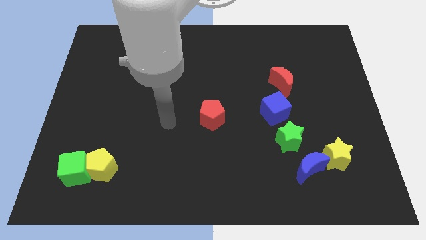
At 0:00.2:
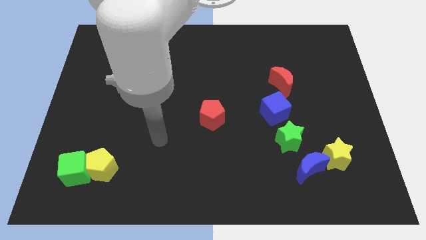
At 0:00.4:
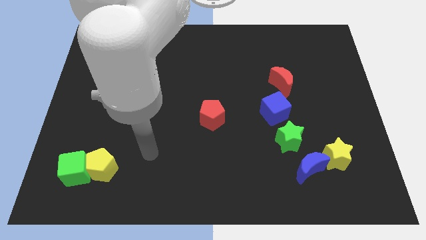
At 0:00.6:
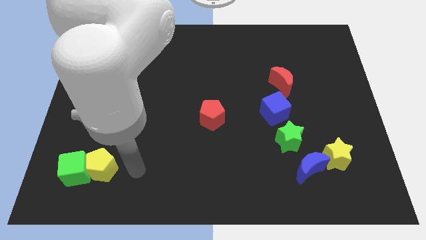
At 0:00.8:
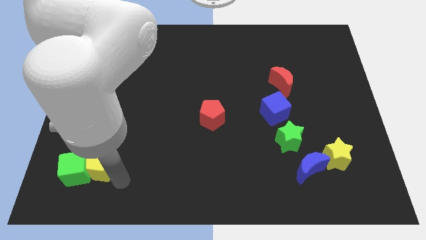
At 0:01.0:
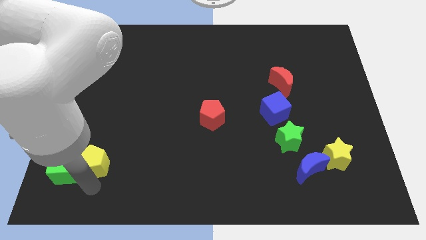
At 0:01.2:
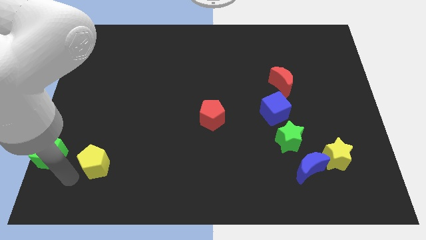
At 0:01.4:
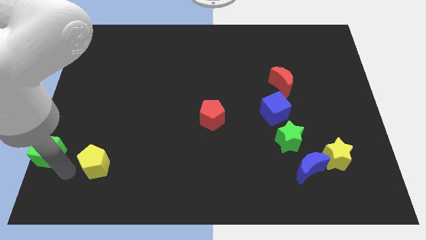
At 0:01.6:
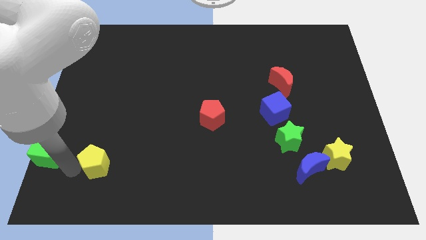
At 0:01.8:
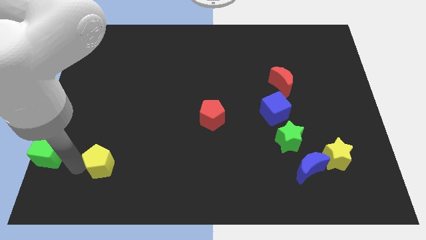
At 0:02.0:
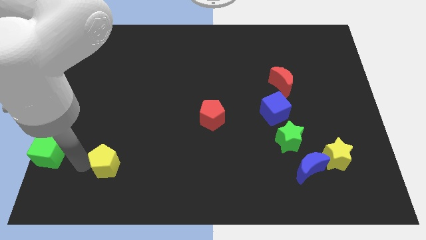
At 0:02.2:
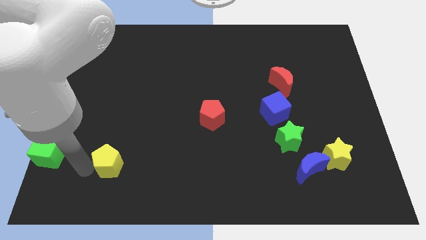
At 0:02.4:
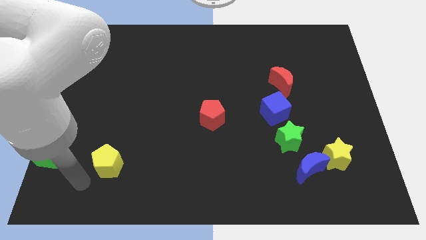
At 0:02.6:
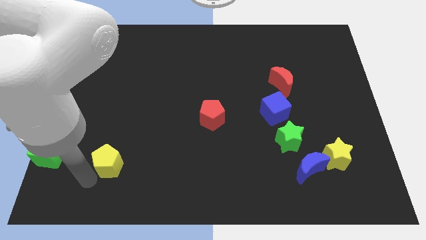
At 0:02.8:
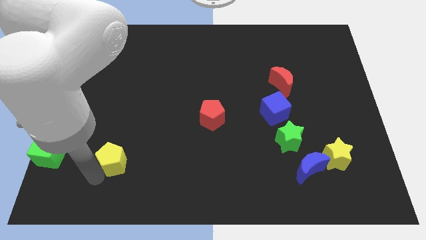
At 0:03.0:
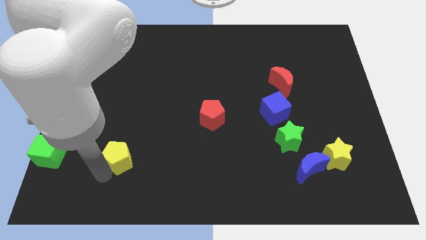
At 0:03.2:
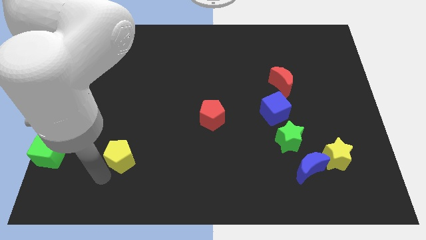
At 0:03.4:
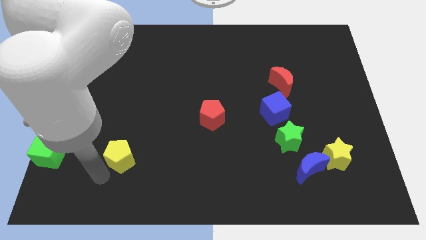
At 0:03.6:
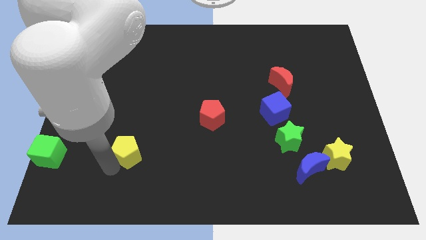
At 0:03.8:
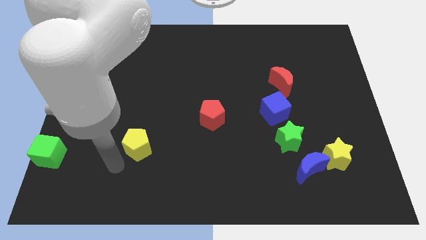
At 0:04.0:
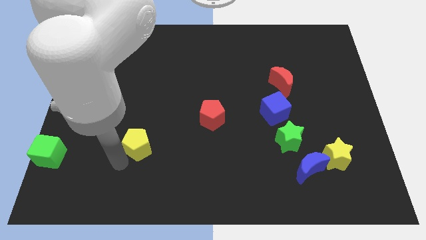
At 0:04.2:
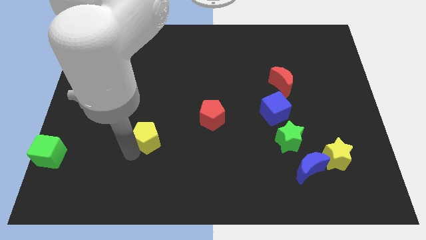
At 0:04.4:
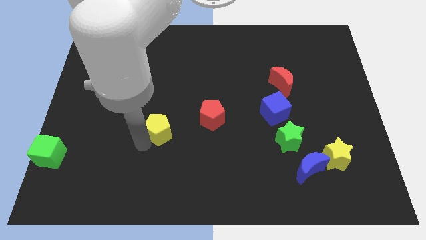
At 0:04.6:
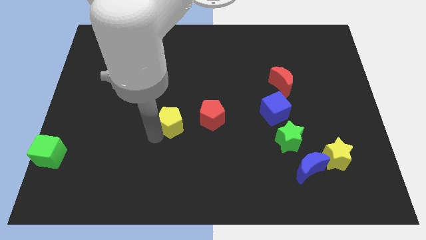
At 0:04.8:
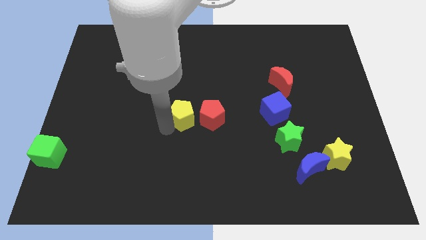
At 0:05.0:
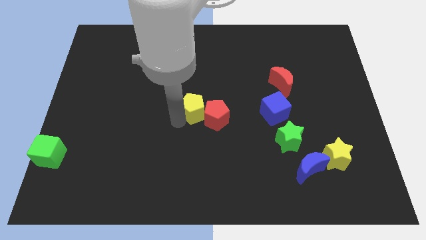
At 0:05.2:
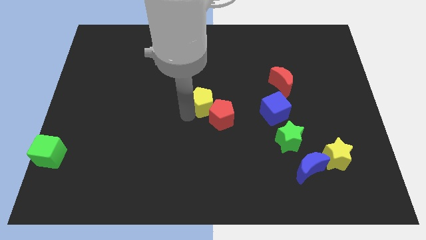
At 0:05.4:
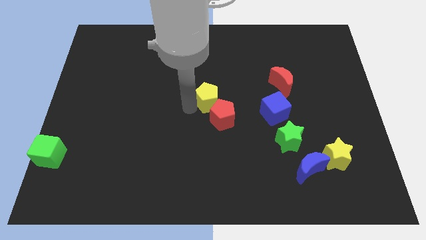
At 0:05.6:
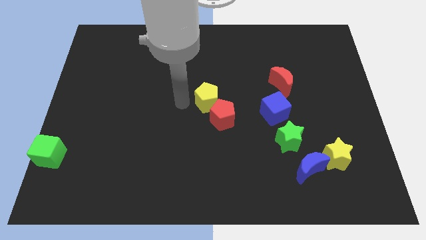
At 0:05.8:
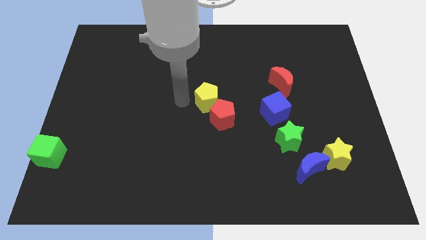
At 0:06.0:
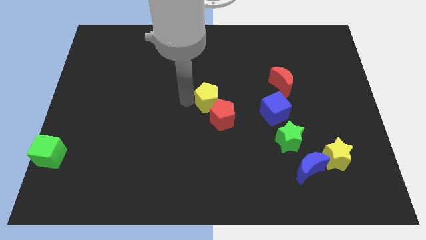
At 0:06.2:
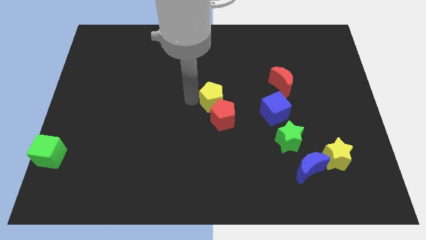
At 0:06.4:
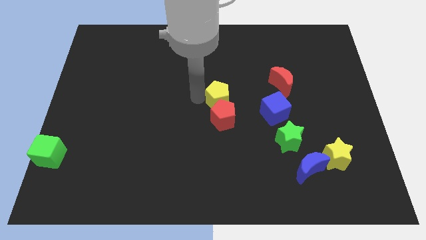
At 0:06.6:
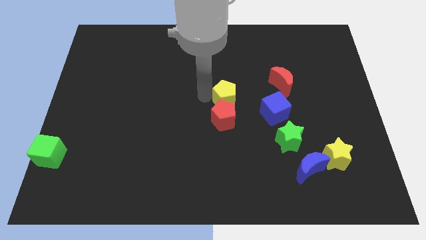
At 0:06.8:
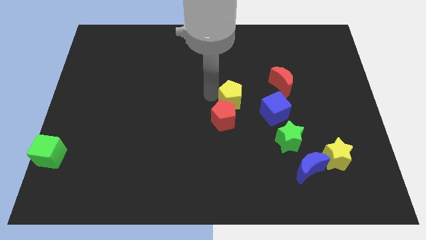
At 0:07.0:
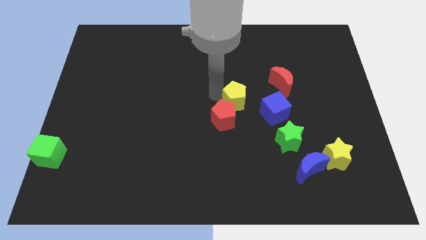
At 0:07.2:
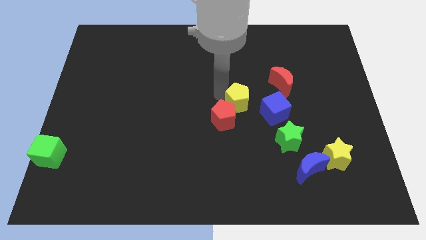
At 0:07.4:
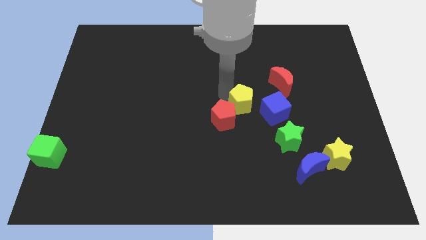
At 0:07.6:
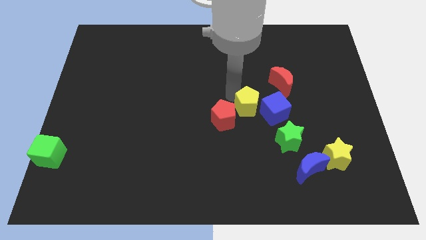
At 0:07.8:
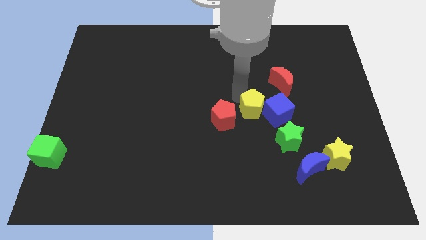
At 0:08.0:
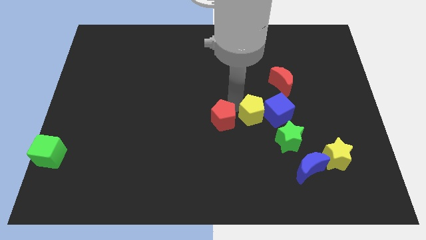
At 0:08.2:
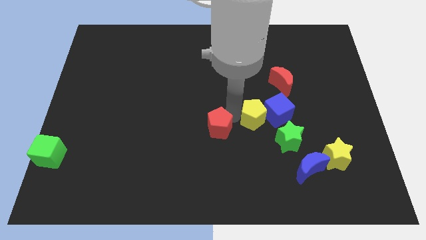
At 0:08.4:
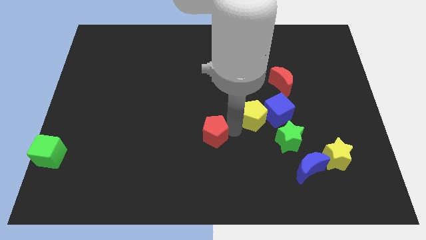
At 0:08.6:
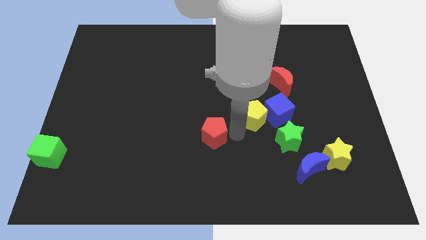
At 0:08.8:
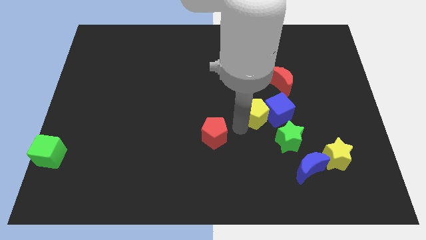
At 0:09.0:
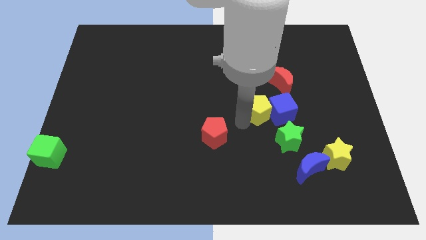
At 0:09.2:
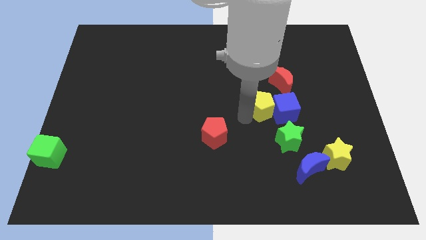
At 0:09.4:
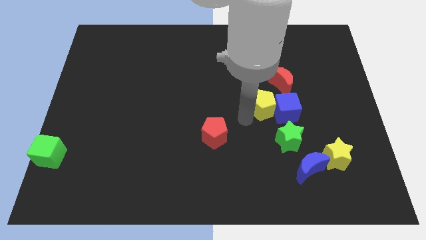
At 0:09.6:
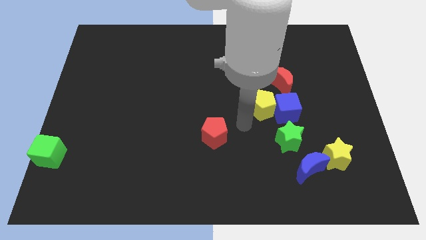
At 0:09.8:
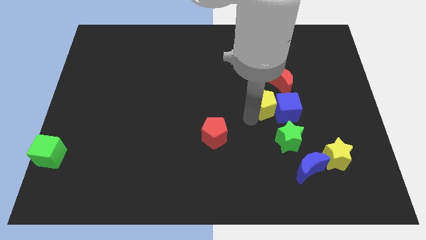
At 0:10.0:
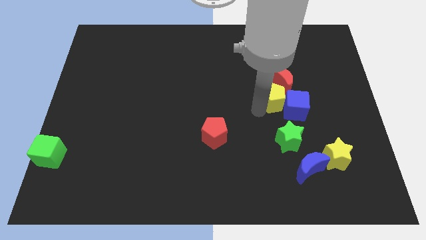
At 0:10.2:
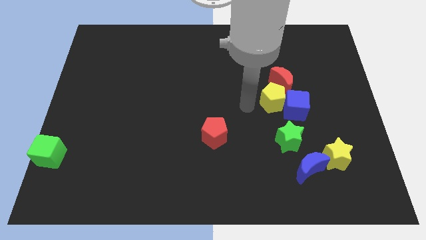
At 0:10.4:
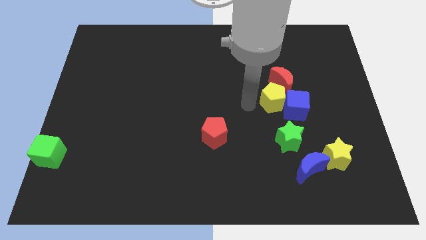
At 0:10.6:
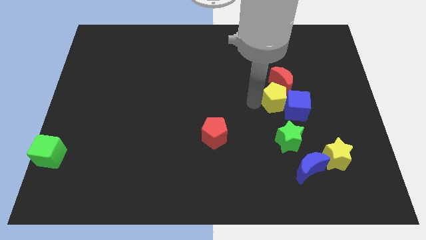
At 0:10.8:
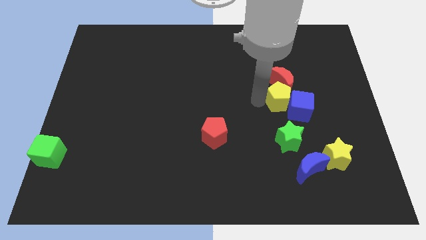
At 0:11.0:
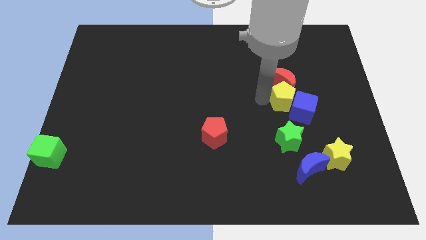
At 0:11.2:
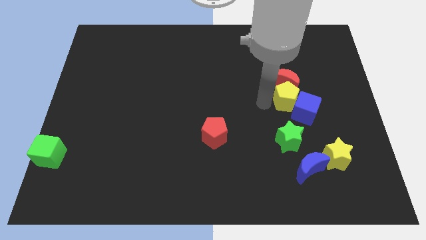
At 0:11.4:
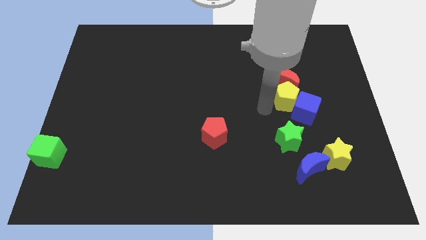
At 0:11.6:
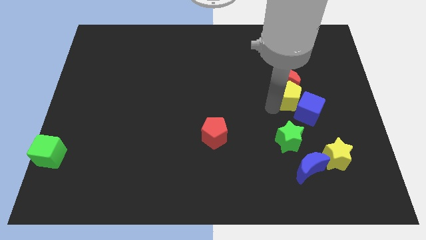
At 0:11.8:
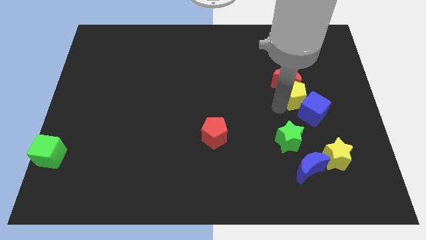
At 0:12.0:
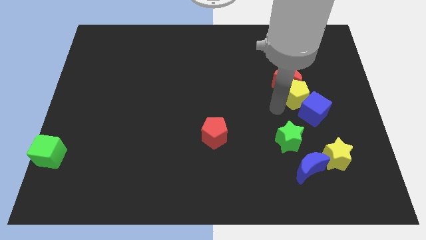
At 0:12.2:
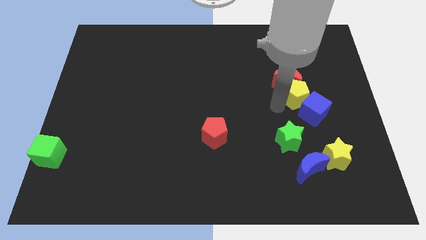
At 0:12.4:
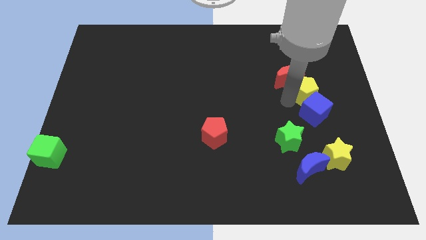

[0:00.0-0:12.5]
push the yellow pentagon to the right side of the red moon

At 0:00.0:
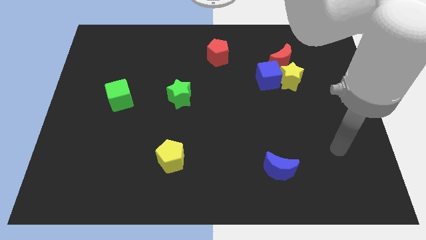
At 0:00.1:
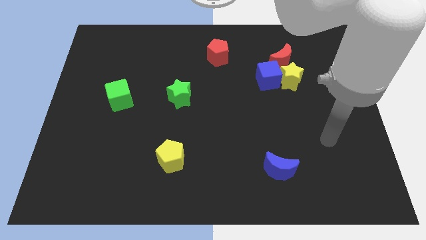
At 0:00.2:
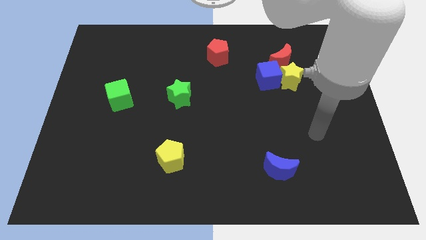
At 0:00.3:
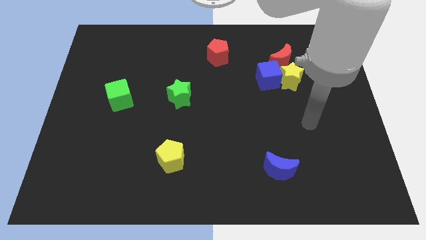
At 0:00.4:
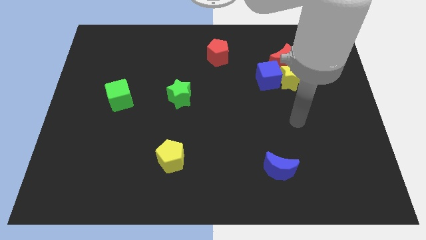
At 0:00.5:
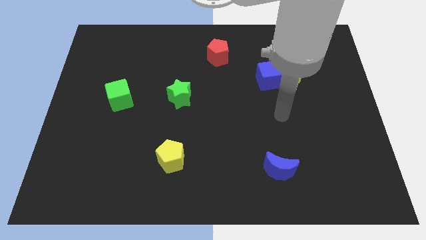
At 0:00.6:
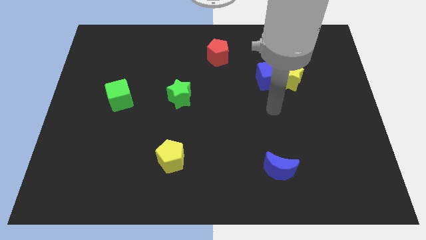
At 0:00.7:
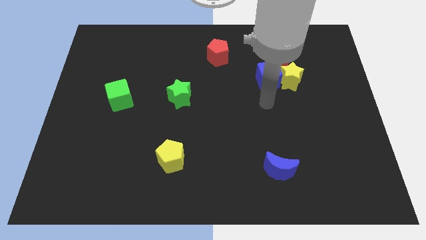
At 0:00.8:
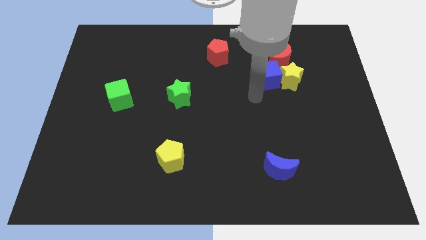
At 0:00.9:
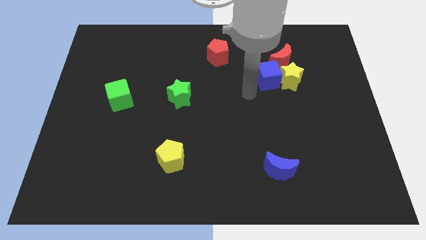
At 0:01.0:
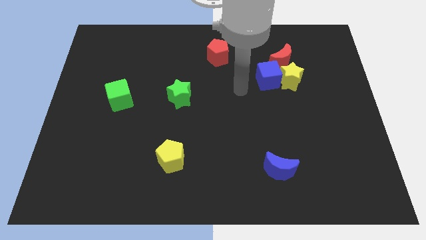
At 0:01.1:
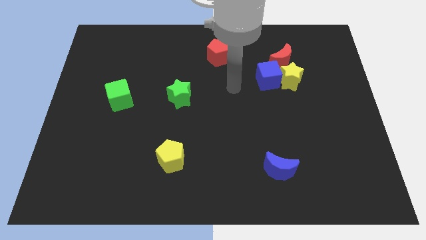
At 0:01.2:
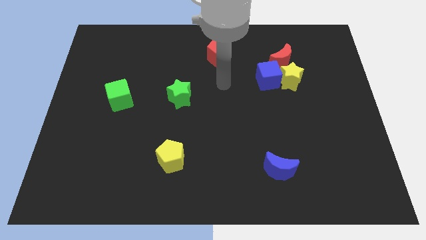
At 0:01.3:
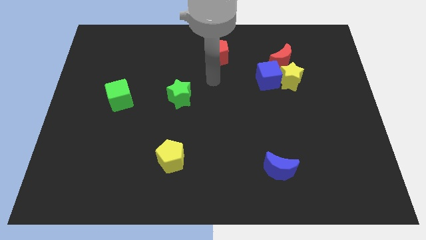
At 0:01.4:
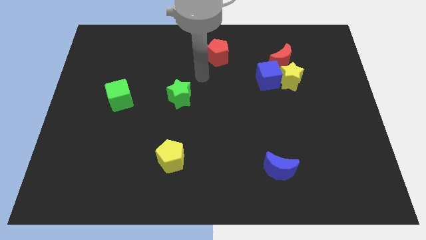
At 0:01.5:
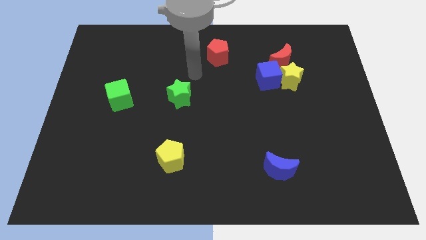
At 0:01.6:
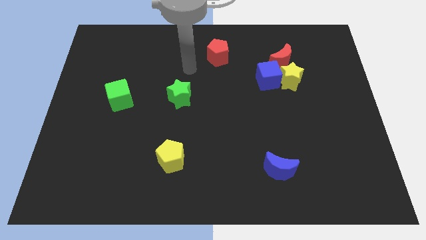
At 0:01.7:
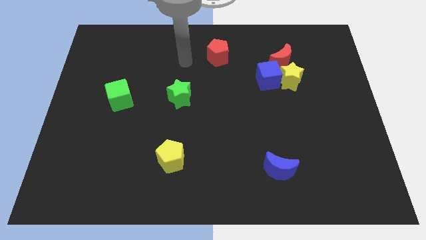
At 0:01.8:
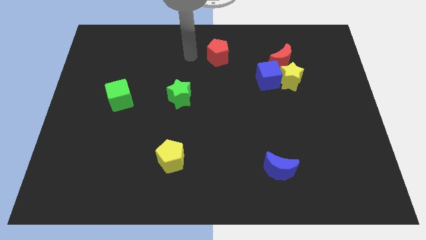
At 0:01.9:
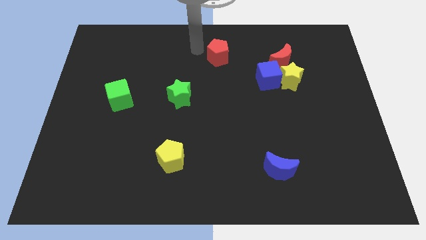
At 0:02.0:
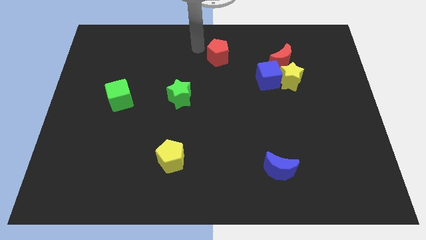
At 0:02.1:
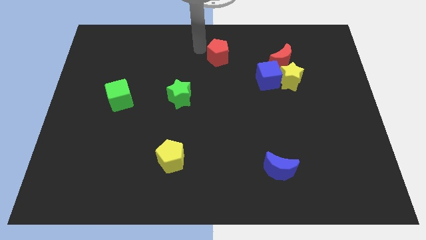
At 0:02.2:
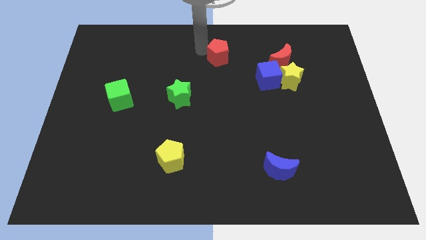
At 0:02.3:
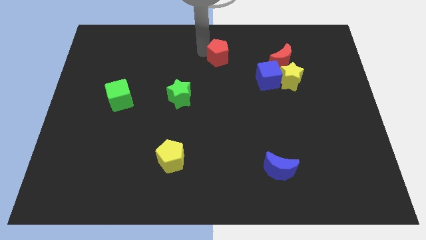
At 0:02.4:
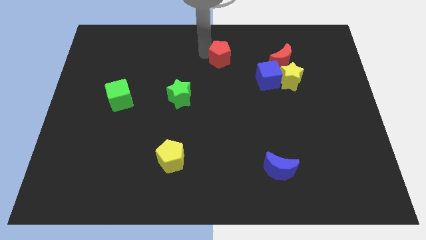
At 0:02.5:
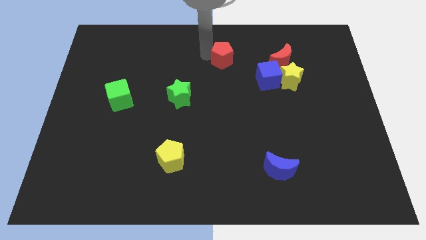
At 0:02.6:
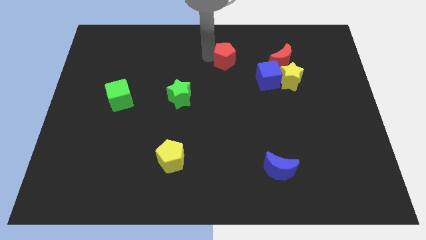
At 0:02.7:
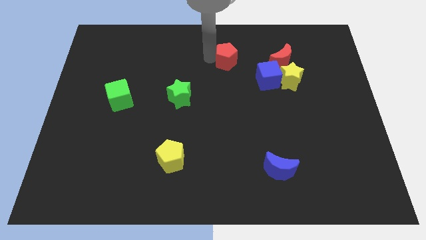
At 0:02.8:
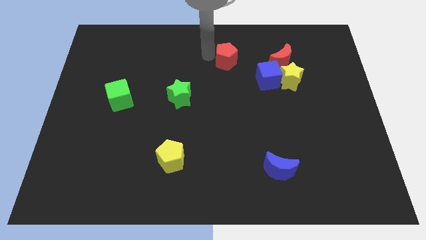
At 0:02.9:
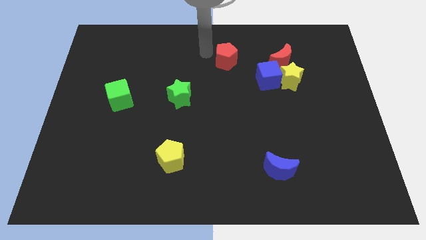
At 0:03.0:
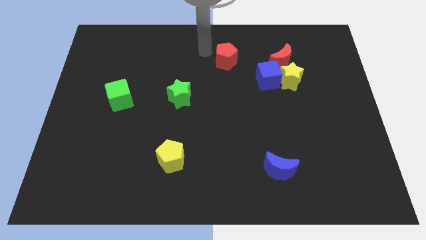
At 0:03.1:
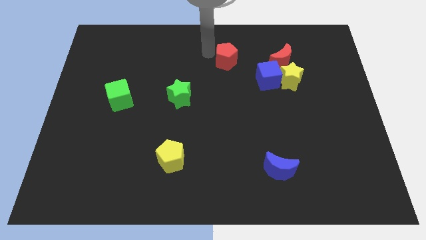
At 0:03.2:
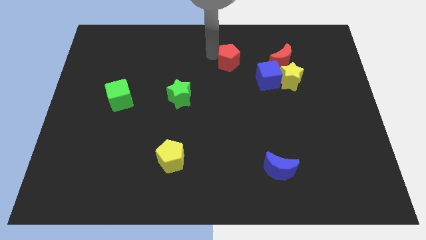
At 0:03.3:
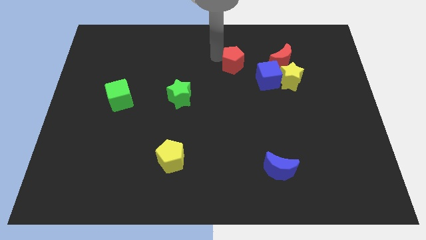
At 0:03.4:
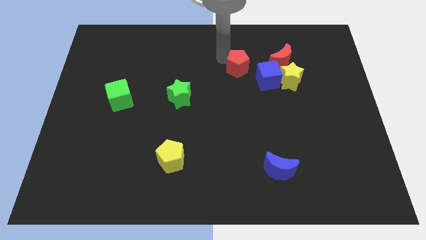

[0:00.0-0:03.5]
slide the red pentagon to the left of the yellow star
